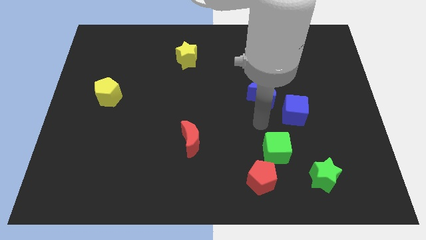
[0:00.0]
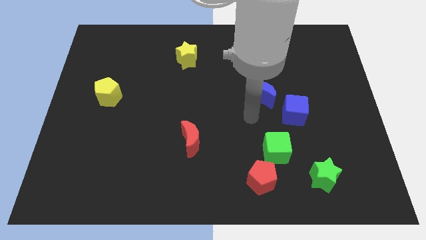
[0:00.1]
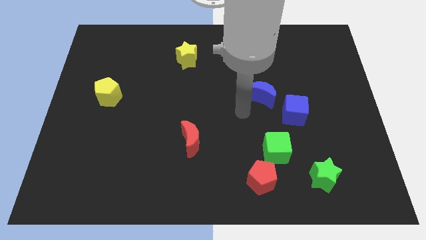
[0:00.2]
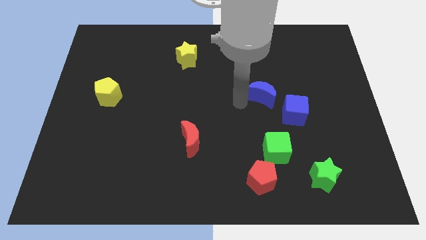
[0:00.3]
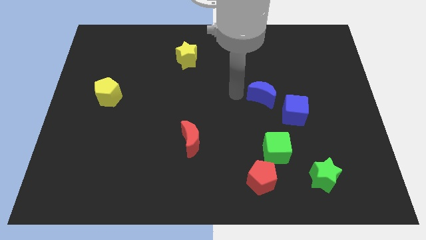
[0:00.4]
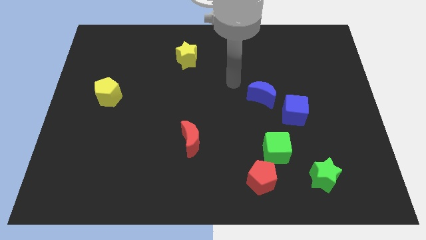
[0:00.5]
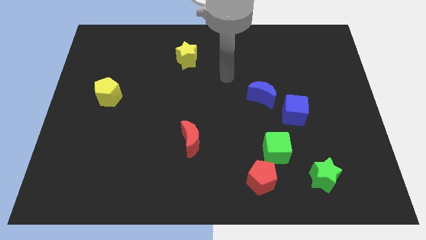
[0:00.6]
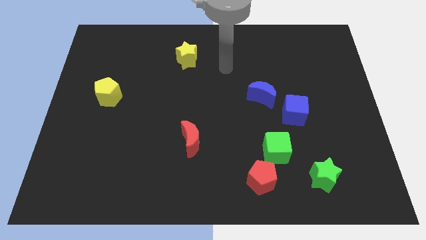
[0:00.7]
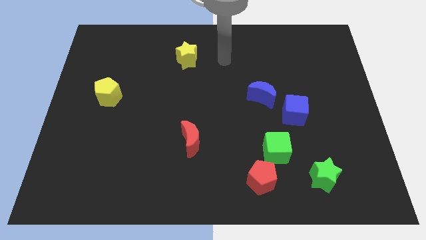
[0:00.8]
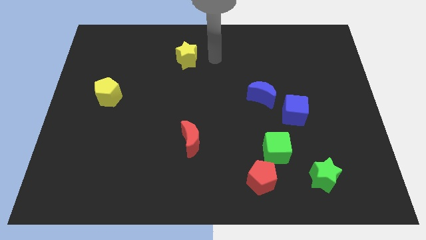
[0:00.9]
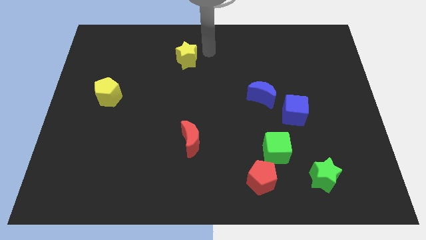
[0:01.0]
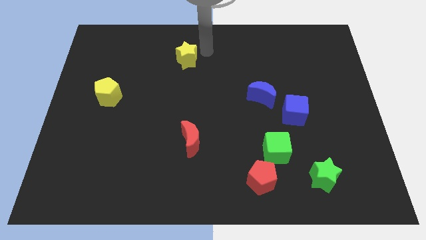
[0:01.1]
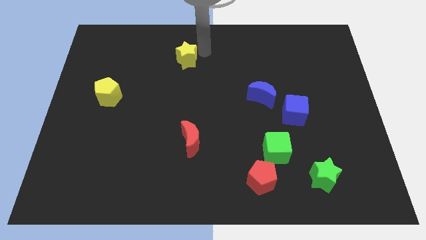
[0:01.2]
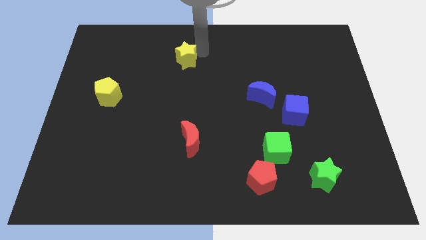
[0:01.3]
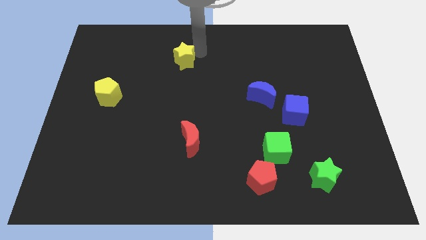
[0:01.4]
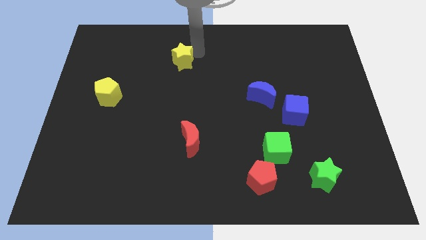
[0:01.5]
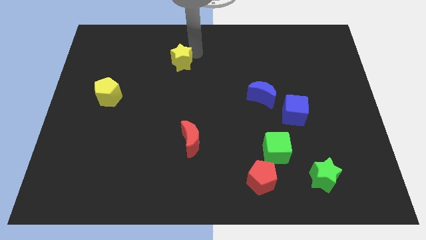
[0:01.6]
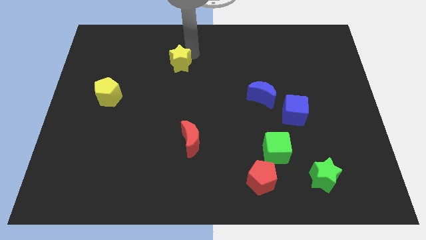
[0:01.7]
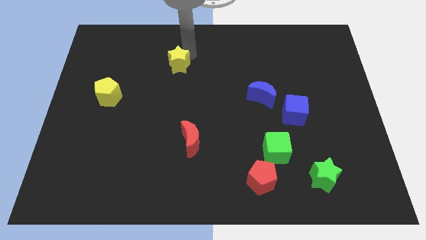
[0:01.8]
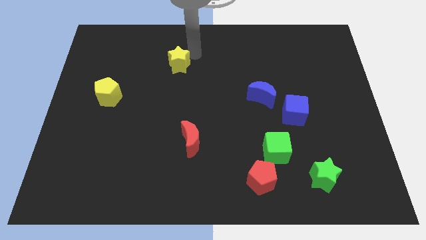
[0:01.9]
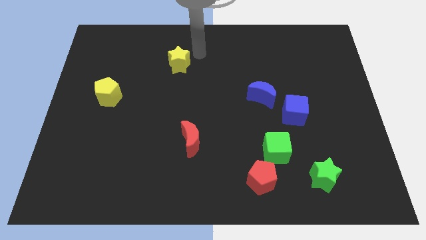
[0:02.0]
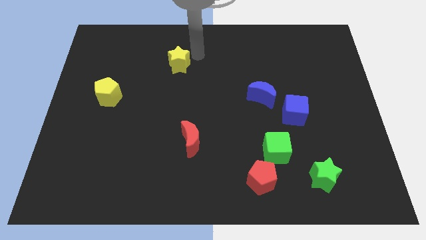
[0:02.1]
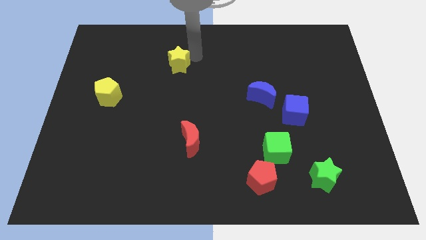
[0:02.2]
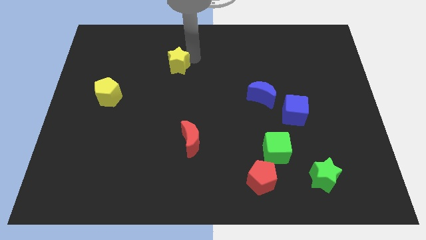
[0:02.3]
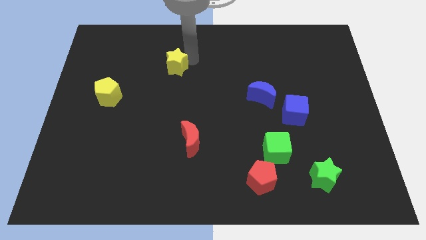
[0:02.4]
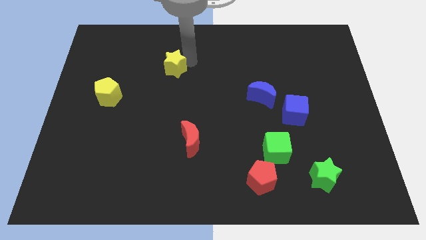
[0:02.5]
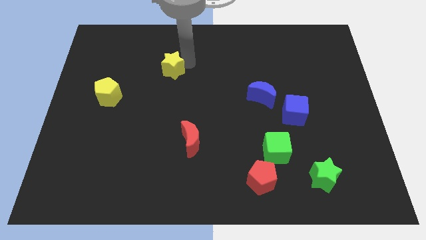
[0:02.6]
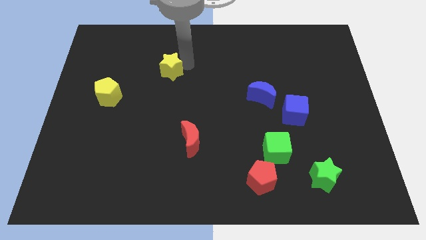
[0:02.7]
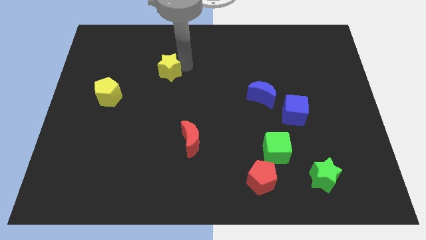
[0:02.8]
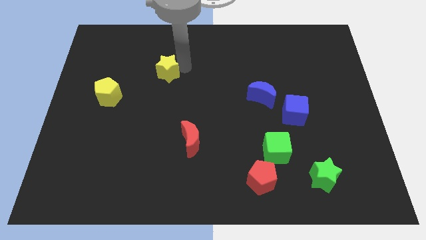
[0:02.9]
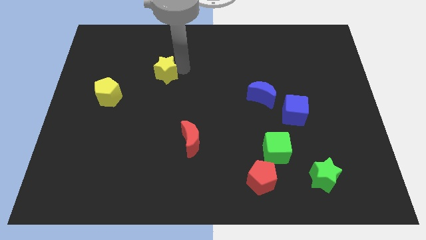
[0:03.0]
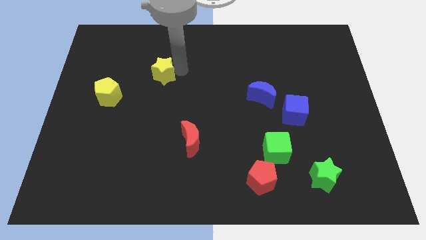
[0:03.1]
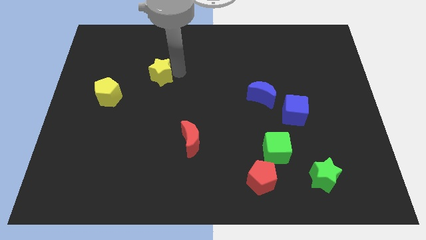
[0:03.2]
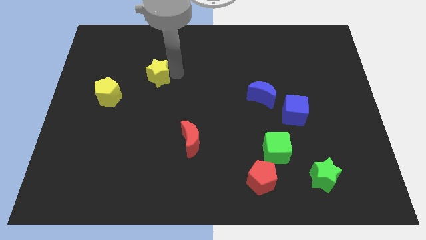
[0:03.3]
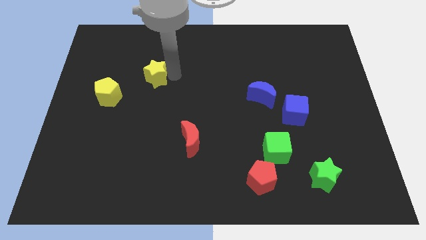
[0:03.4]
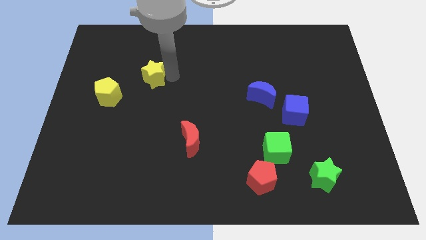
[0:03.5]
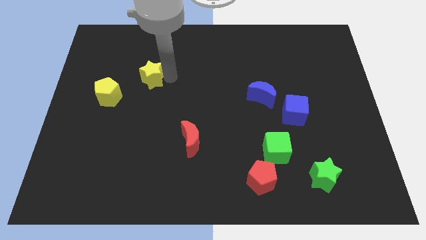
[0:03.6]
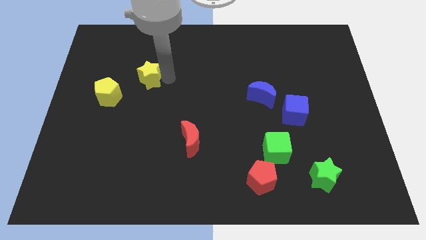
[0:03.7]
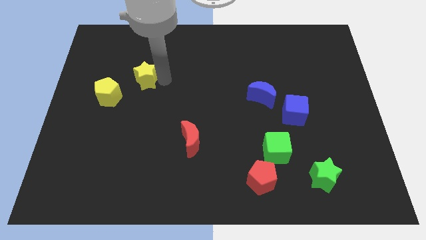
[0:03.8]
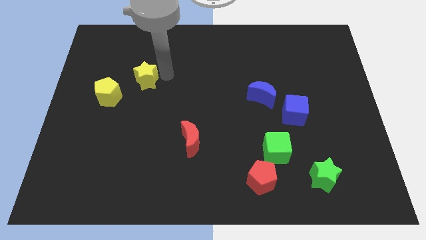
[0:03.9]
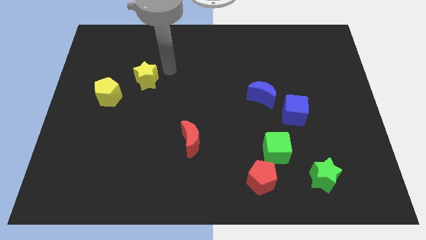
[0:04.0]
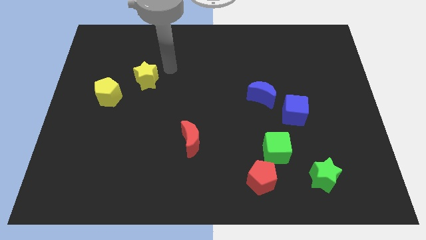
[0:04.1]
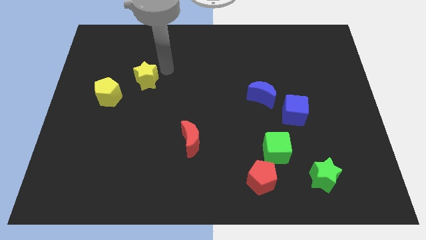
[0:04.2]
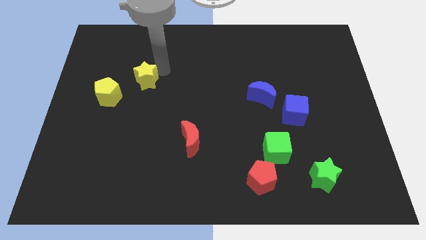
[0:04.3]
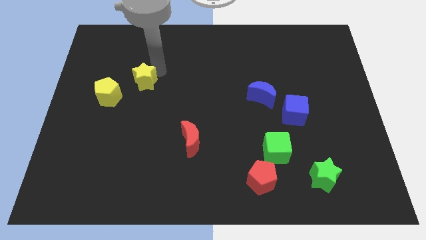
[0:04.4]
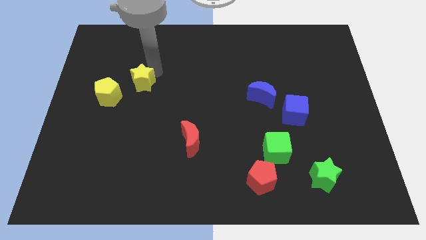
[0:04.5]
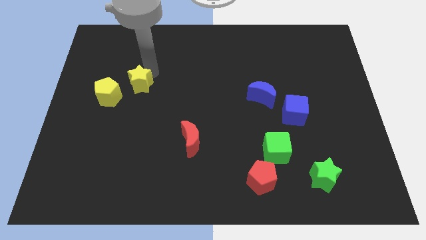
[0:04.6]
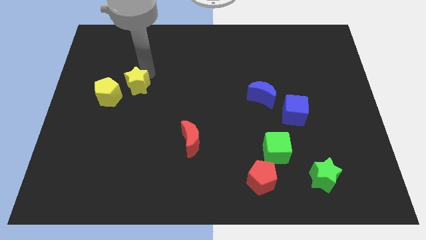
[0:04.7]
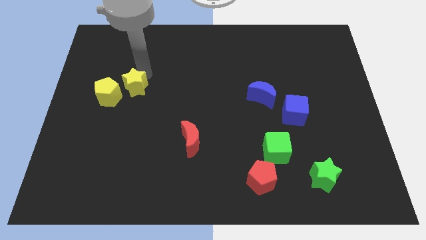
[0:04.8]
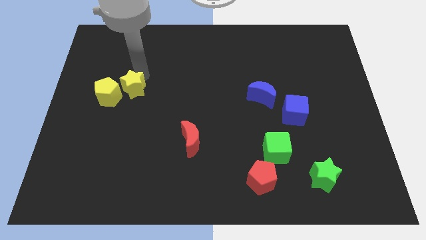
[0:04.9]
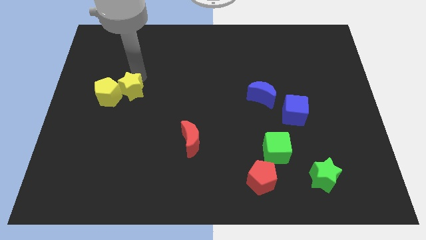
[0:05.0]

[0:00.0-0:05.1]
slide the yellow star towards the yellow pentagon

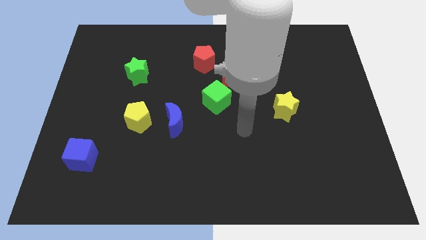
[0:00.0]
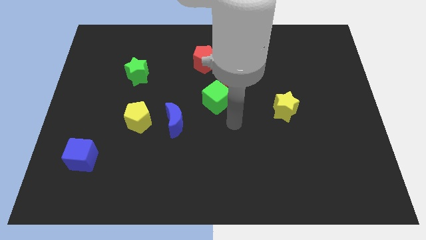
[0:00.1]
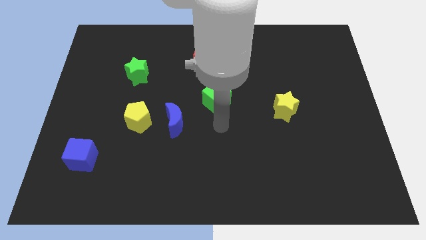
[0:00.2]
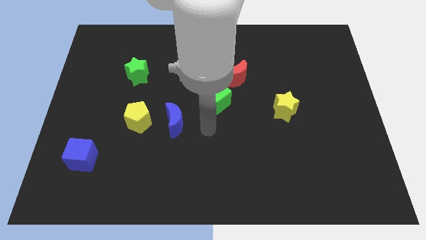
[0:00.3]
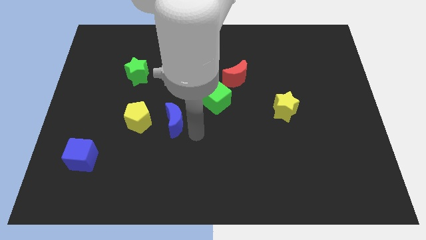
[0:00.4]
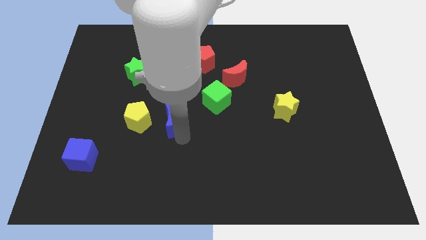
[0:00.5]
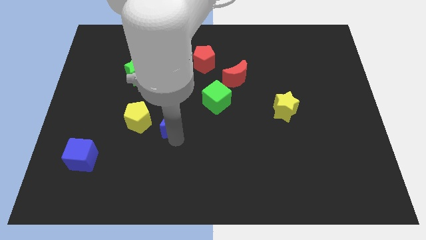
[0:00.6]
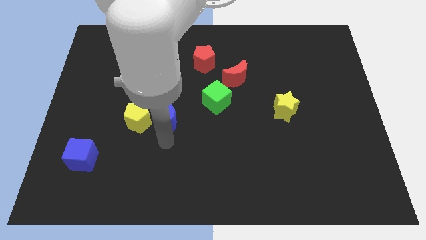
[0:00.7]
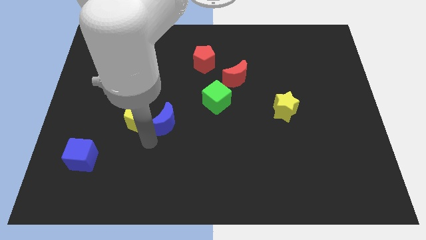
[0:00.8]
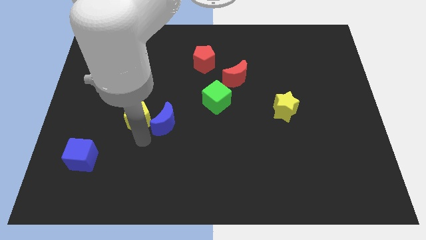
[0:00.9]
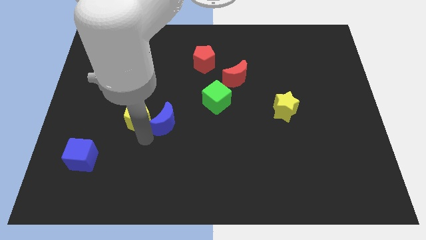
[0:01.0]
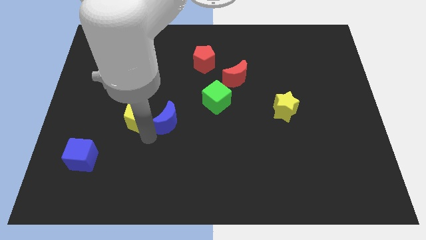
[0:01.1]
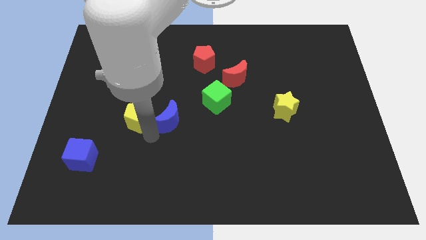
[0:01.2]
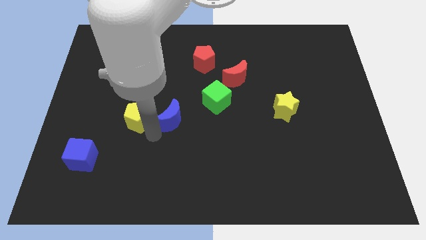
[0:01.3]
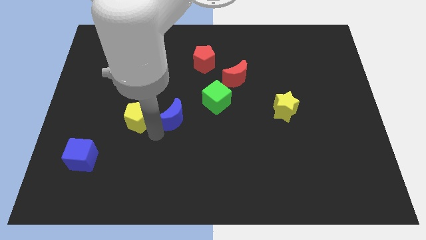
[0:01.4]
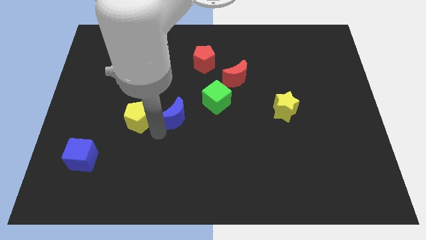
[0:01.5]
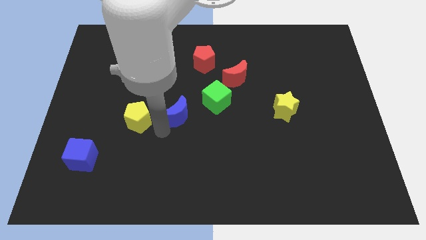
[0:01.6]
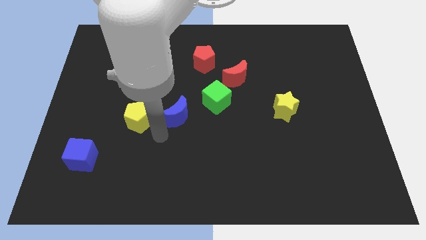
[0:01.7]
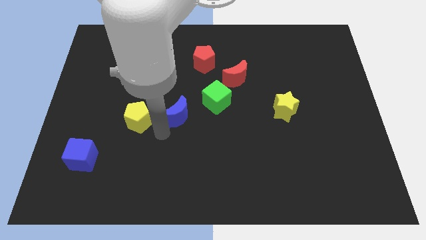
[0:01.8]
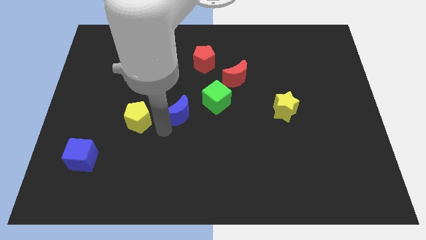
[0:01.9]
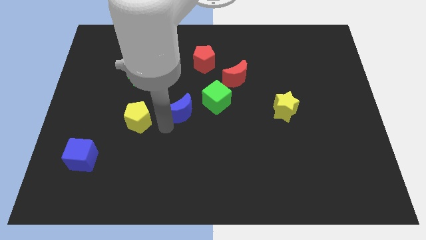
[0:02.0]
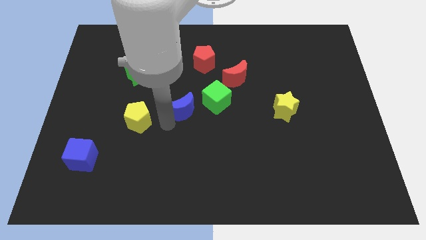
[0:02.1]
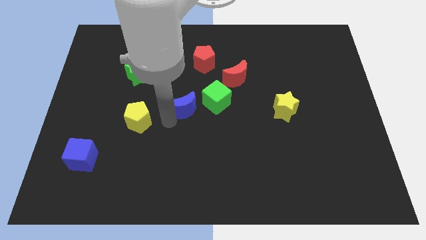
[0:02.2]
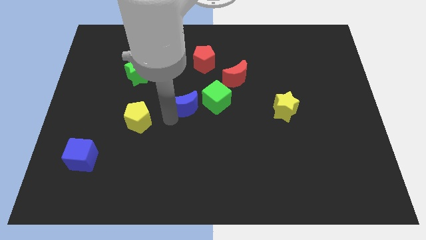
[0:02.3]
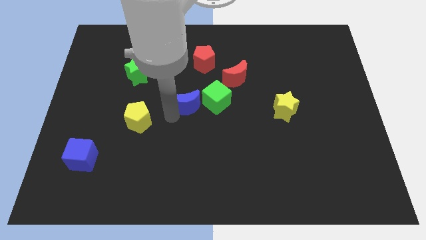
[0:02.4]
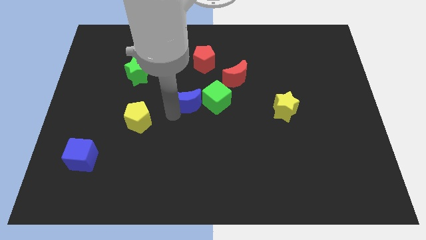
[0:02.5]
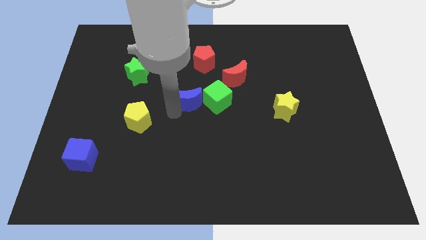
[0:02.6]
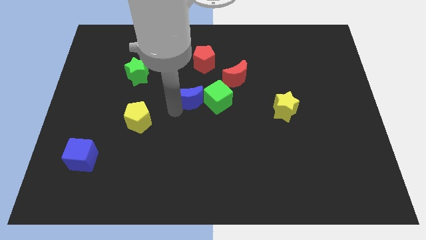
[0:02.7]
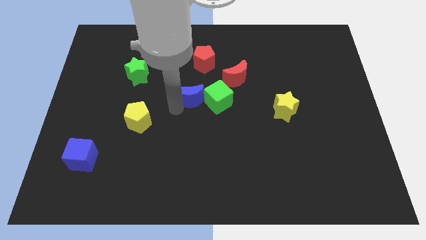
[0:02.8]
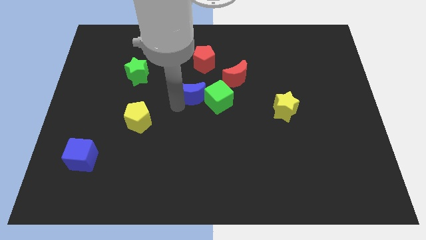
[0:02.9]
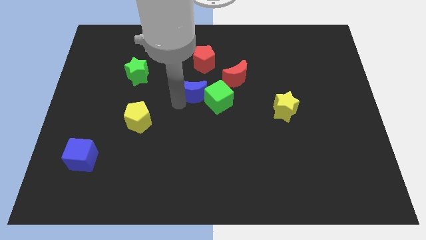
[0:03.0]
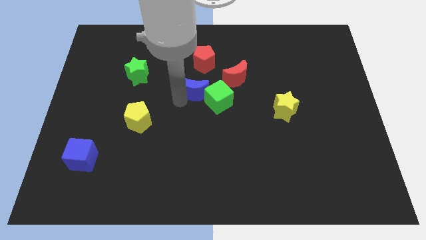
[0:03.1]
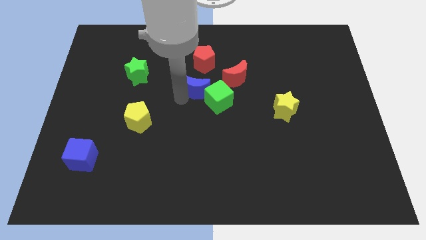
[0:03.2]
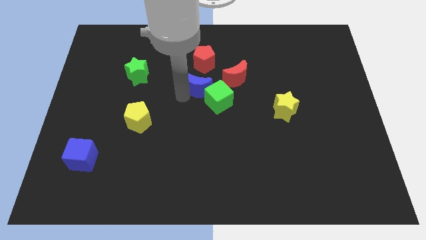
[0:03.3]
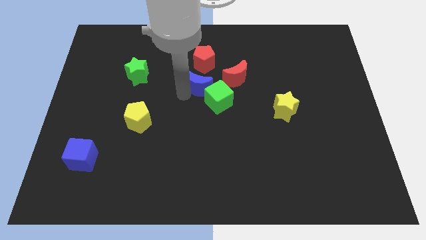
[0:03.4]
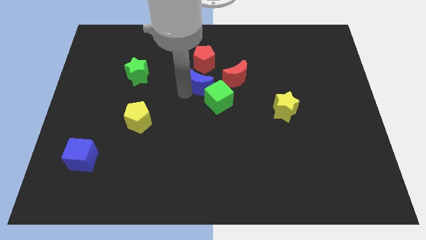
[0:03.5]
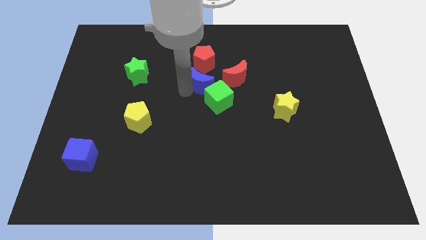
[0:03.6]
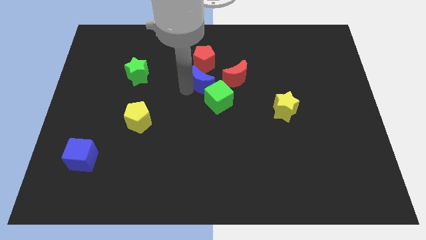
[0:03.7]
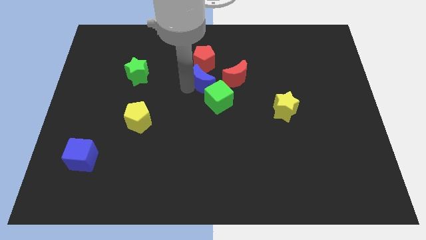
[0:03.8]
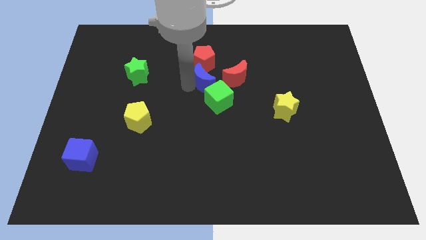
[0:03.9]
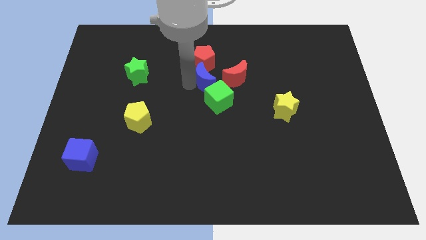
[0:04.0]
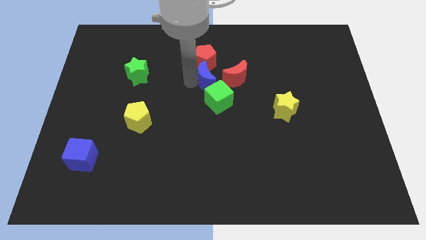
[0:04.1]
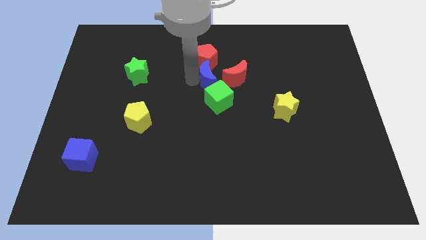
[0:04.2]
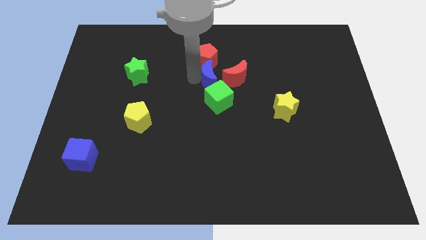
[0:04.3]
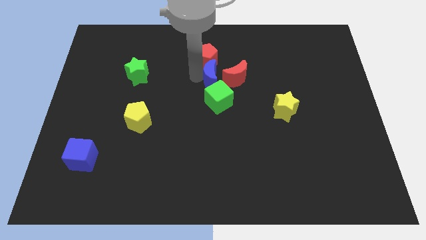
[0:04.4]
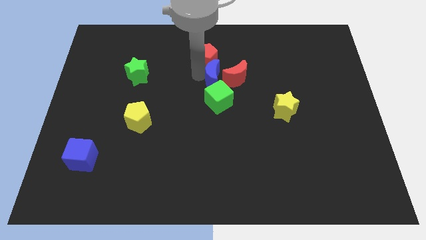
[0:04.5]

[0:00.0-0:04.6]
move the blue moon next to the red moon
